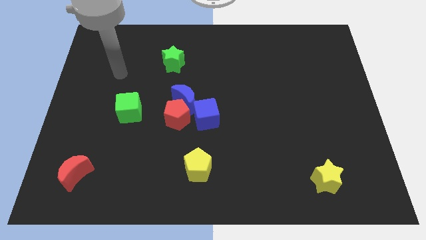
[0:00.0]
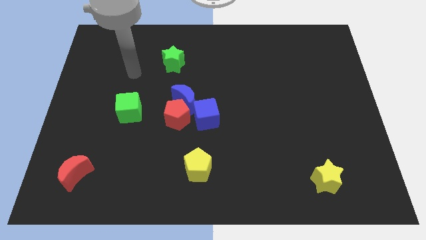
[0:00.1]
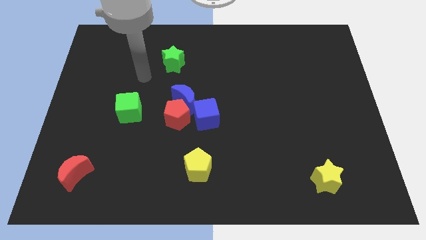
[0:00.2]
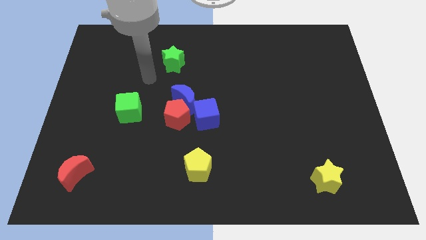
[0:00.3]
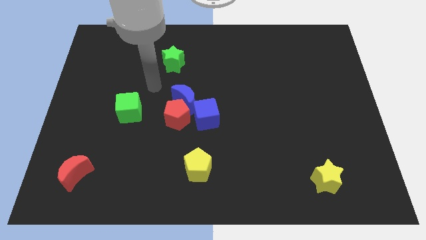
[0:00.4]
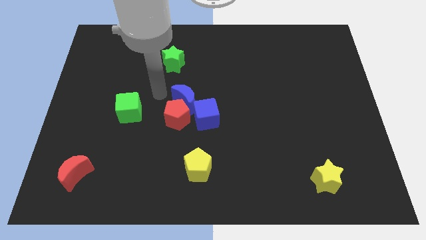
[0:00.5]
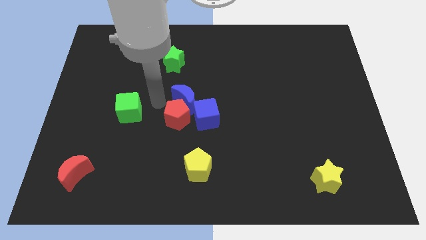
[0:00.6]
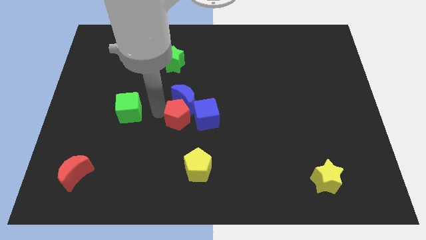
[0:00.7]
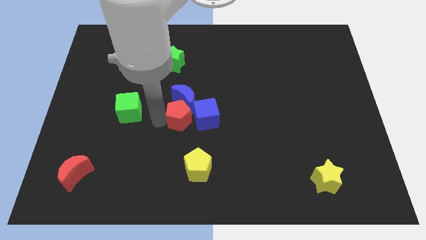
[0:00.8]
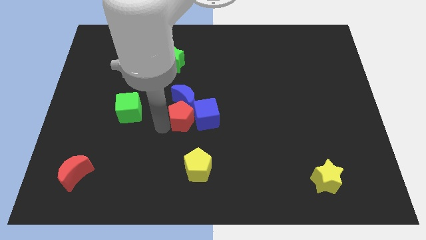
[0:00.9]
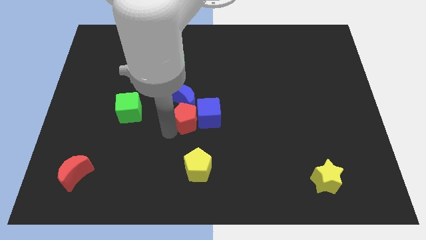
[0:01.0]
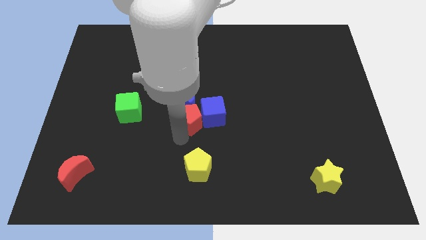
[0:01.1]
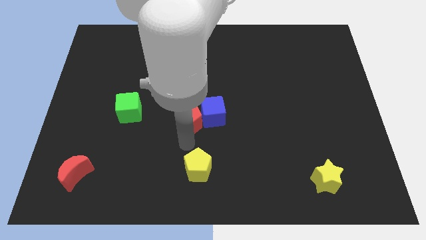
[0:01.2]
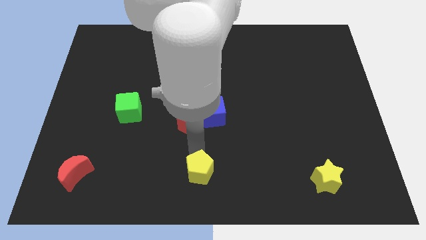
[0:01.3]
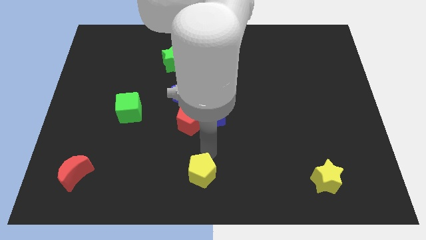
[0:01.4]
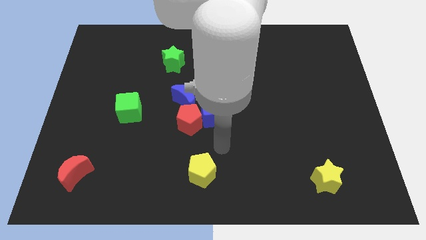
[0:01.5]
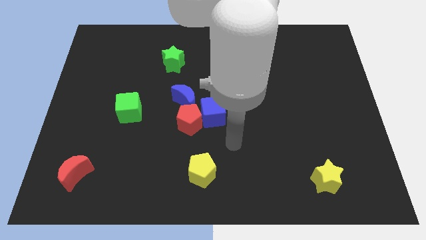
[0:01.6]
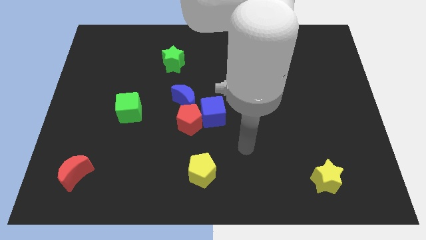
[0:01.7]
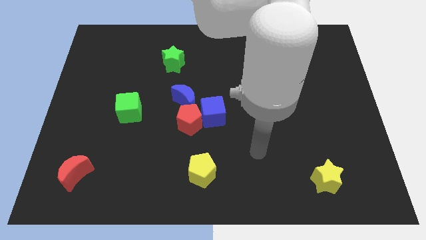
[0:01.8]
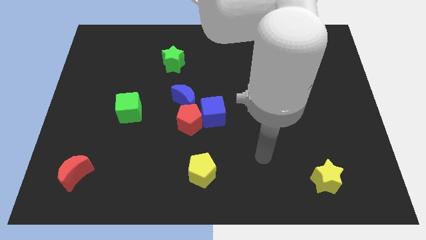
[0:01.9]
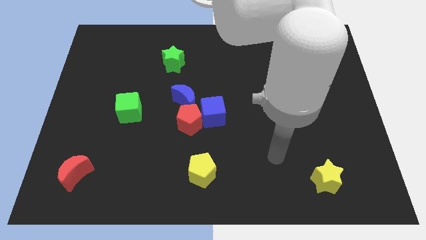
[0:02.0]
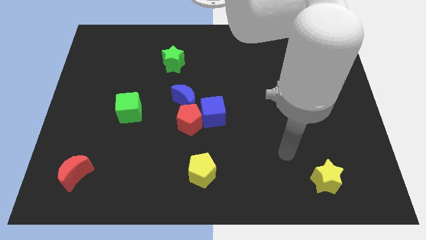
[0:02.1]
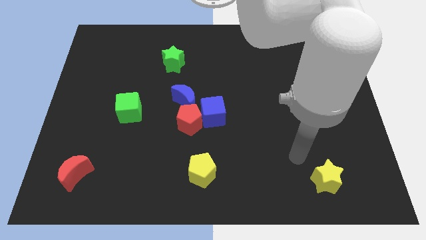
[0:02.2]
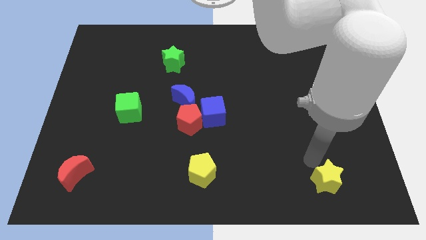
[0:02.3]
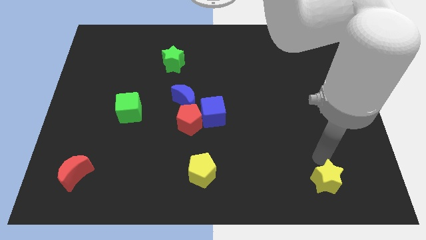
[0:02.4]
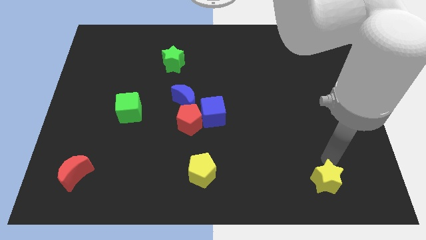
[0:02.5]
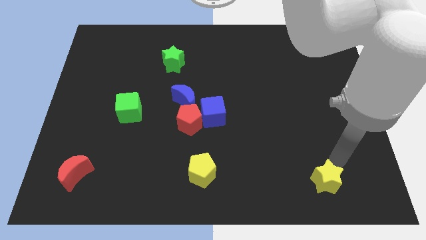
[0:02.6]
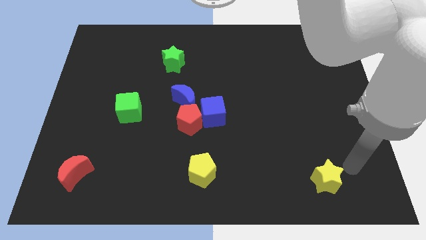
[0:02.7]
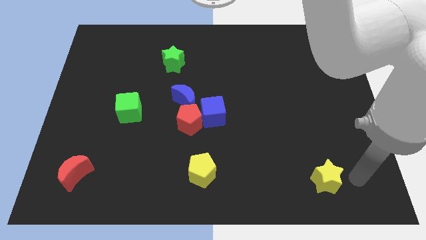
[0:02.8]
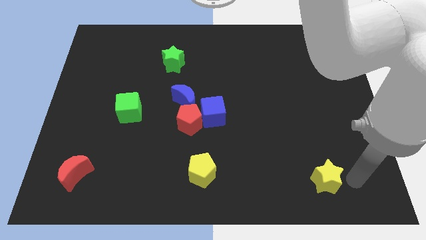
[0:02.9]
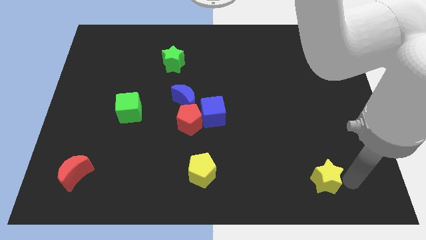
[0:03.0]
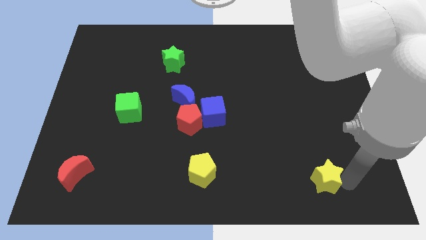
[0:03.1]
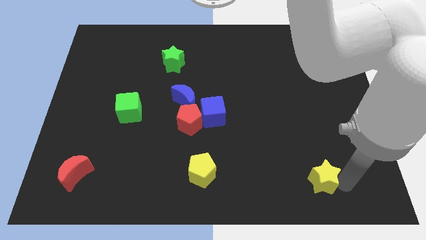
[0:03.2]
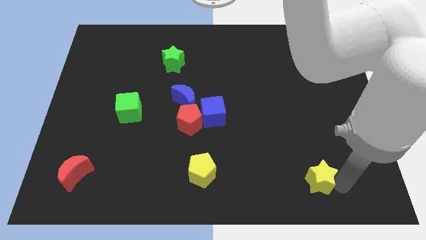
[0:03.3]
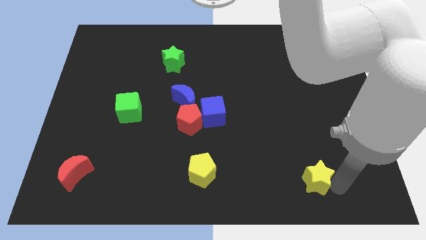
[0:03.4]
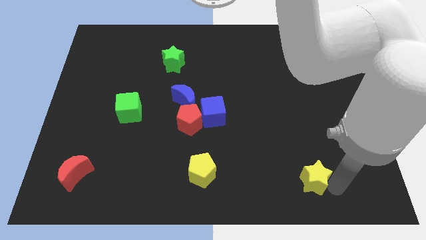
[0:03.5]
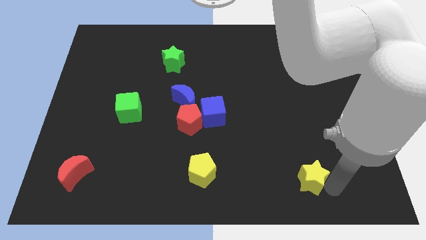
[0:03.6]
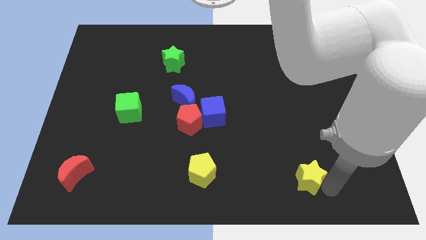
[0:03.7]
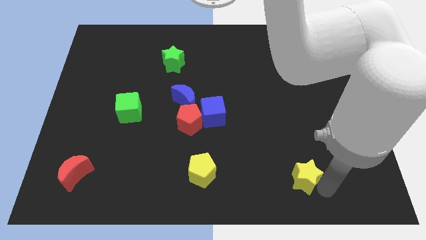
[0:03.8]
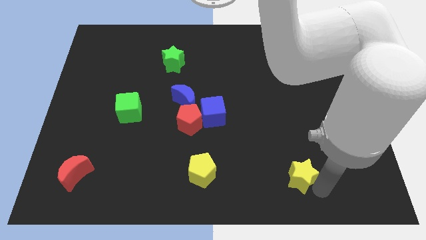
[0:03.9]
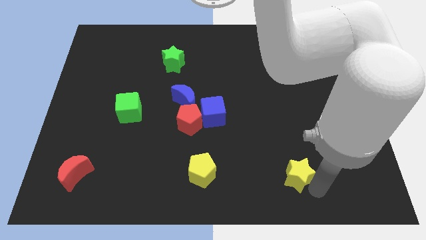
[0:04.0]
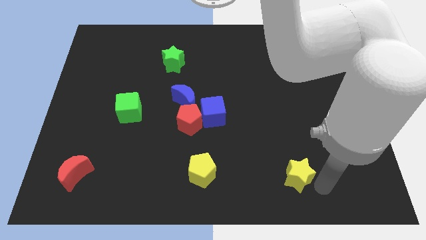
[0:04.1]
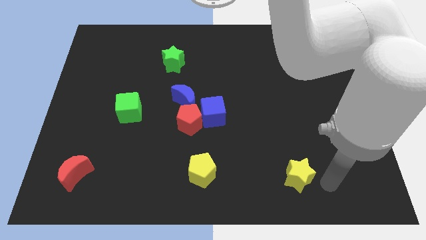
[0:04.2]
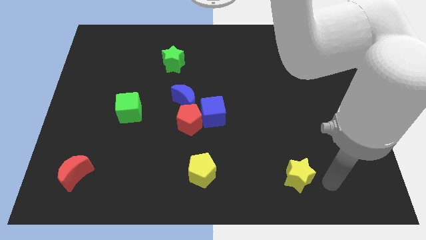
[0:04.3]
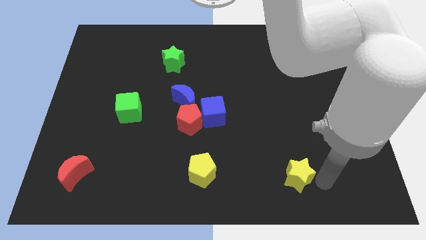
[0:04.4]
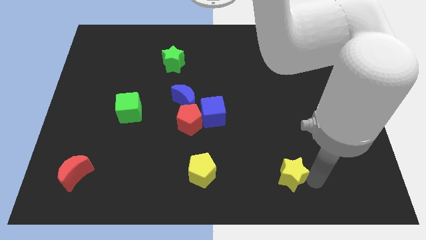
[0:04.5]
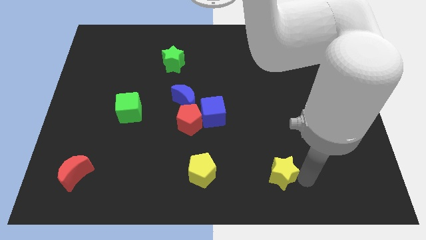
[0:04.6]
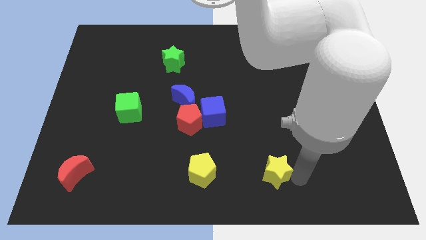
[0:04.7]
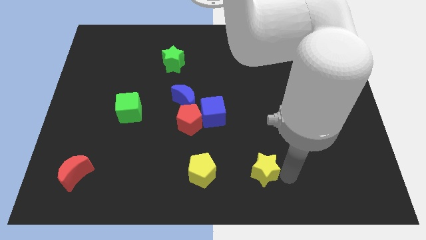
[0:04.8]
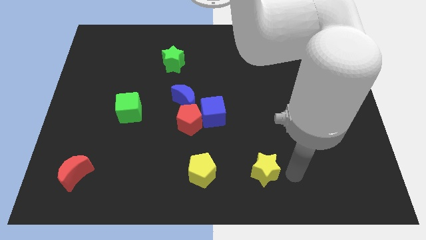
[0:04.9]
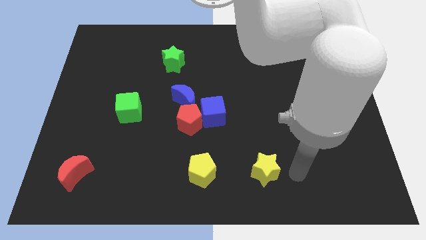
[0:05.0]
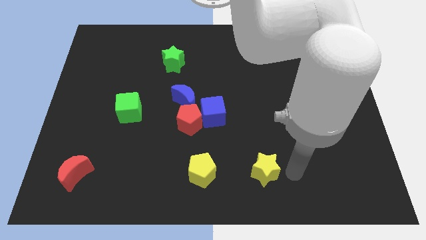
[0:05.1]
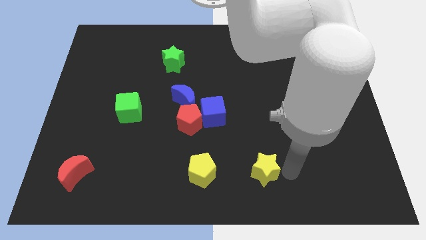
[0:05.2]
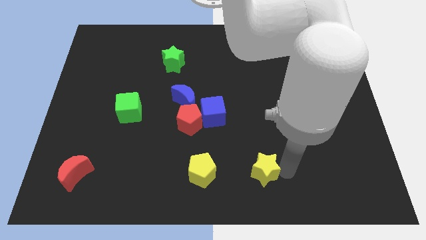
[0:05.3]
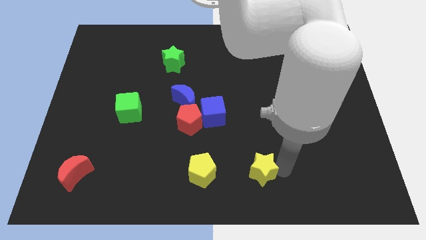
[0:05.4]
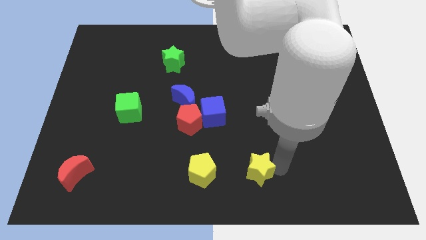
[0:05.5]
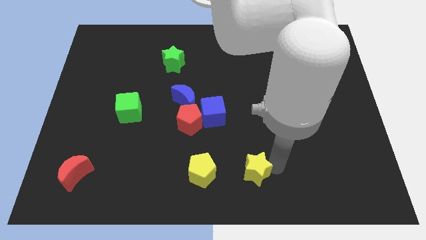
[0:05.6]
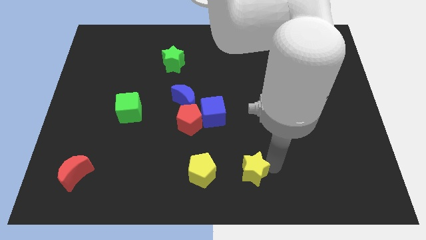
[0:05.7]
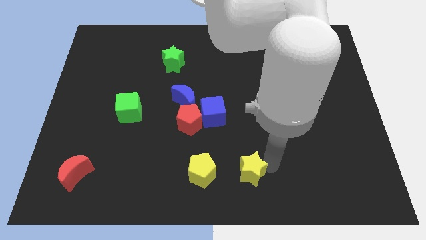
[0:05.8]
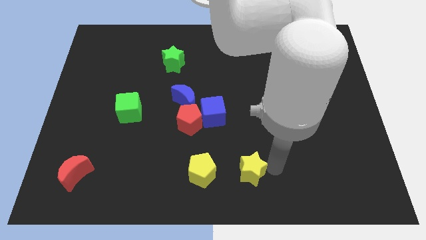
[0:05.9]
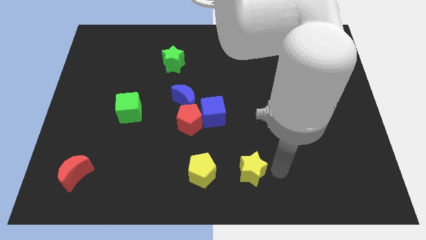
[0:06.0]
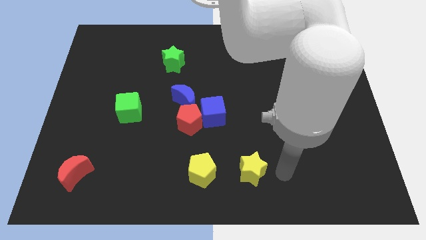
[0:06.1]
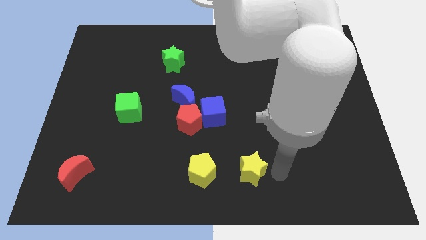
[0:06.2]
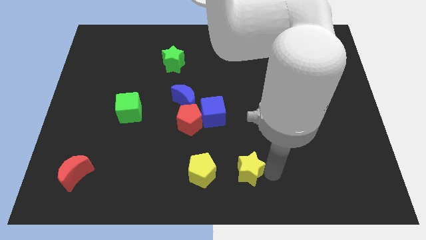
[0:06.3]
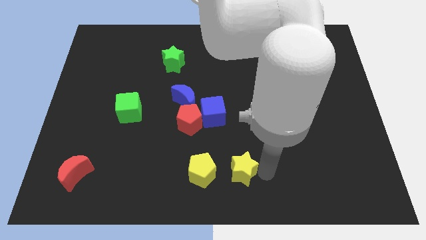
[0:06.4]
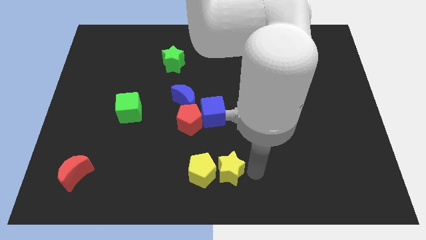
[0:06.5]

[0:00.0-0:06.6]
move the yellow star next to the yellow pentagon
